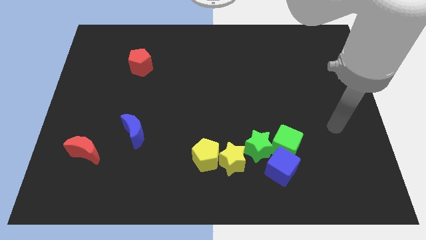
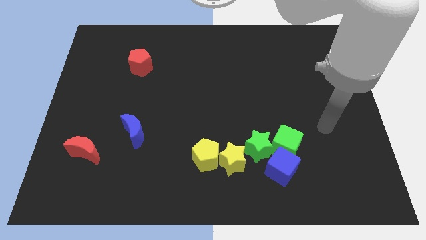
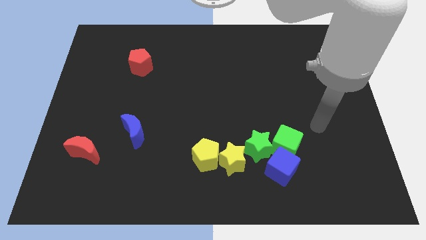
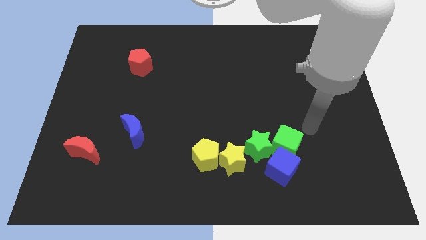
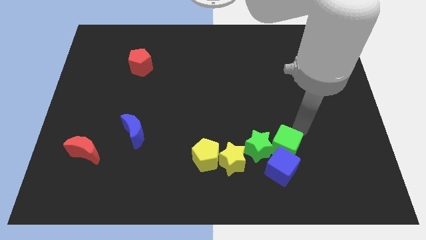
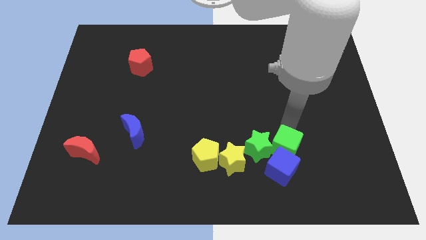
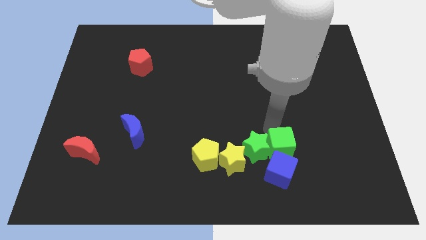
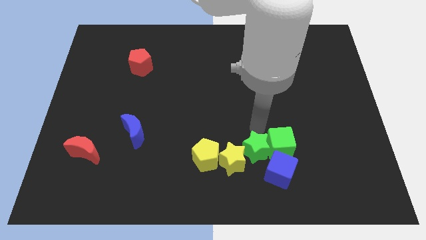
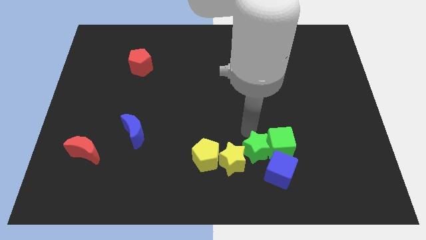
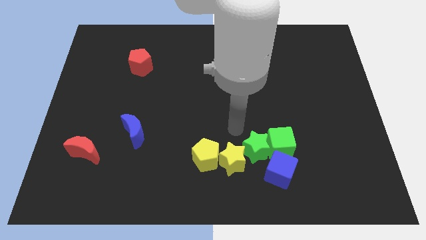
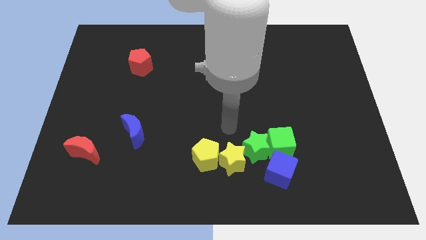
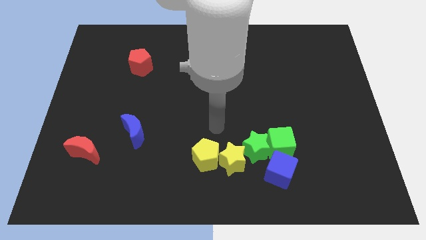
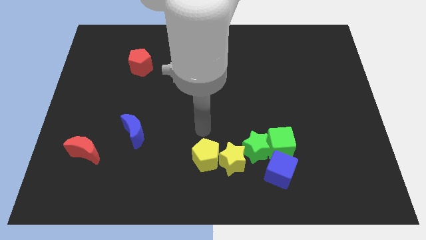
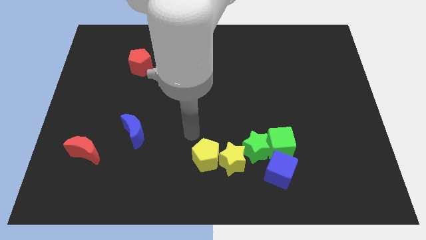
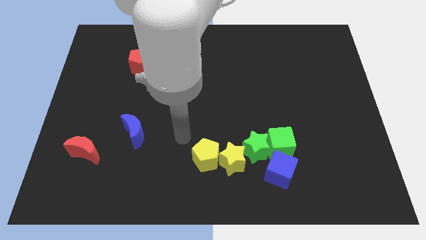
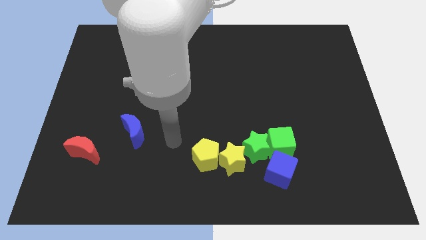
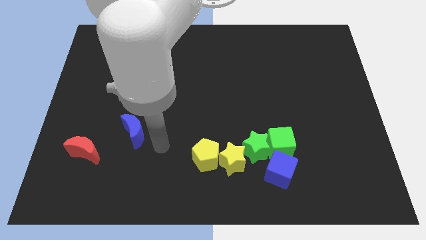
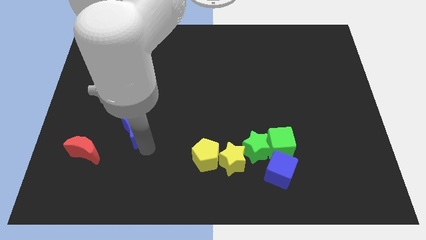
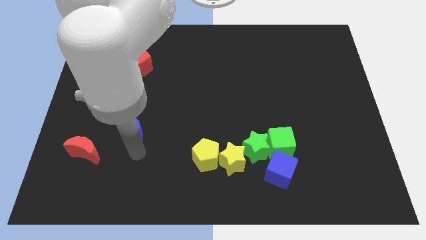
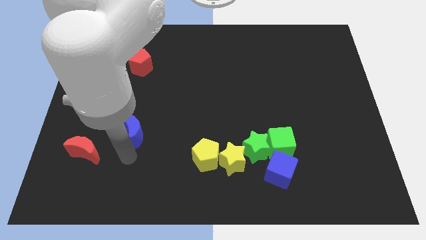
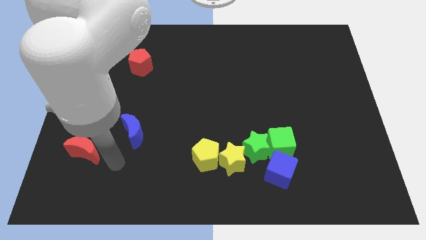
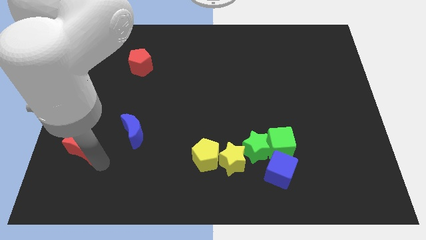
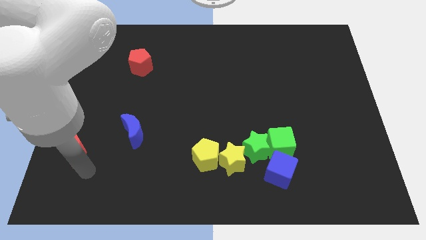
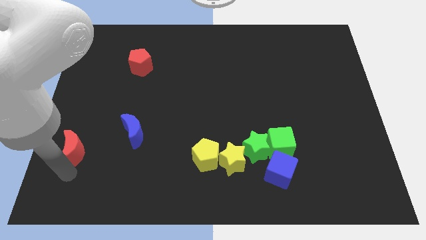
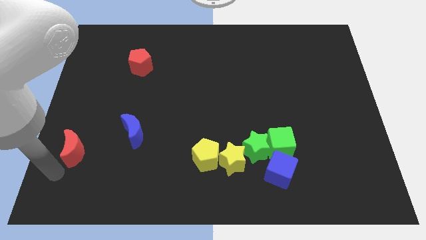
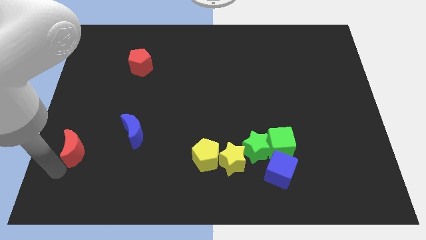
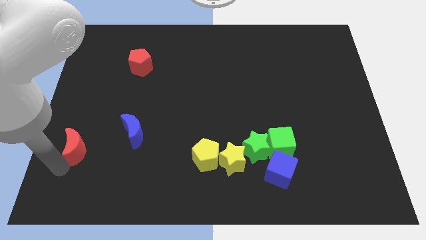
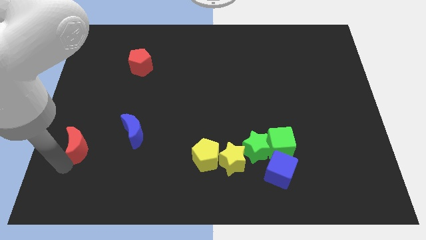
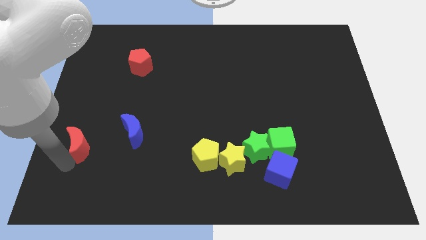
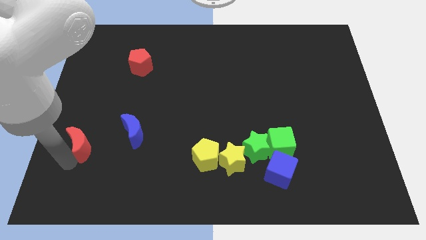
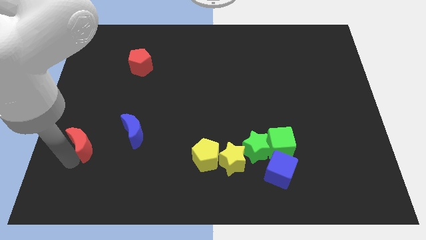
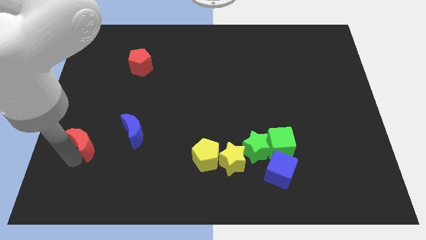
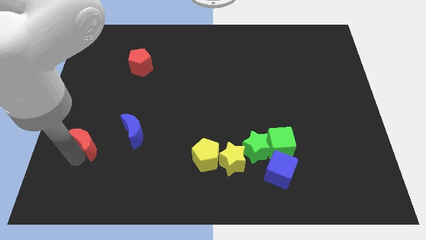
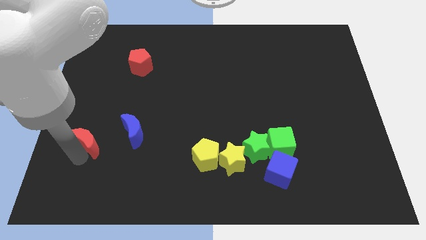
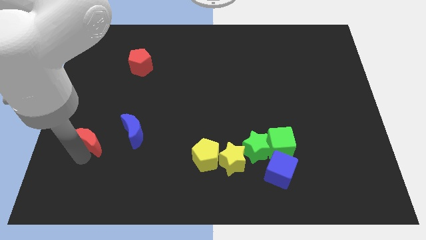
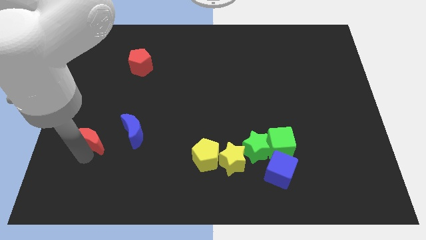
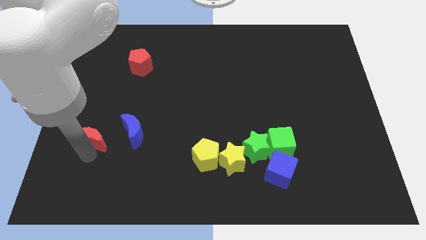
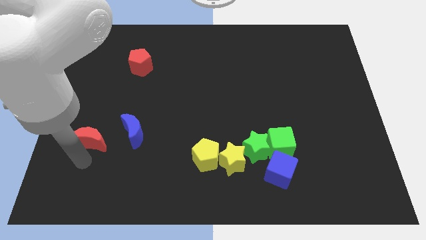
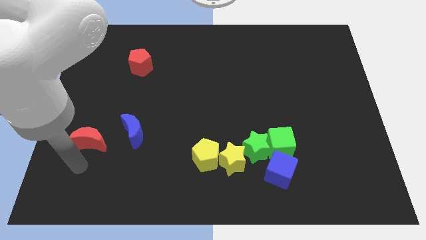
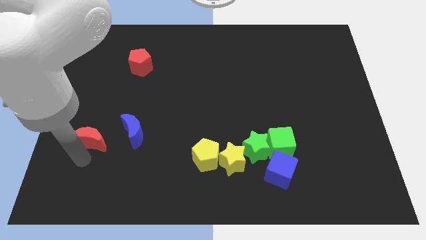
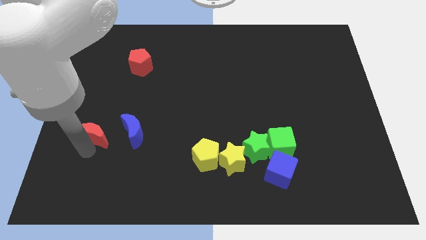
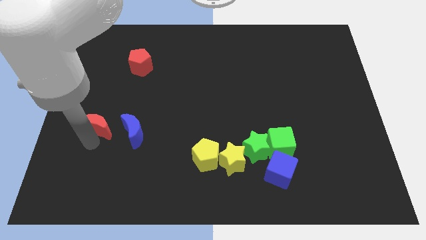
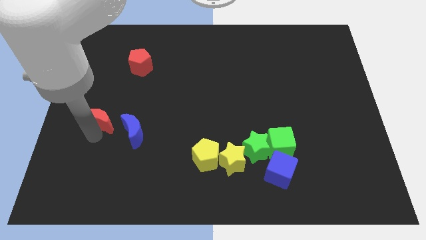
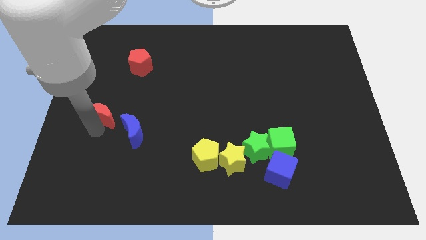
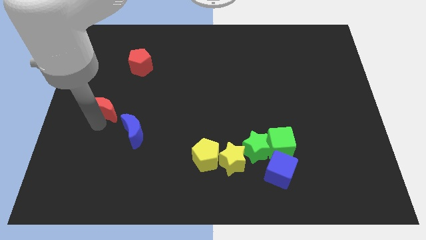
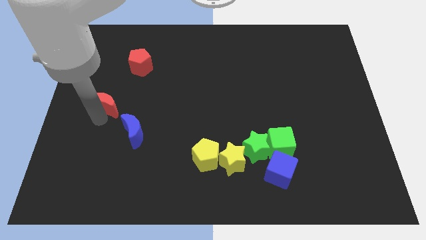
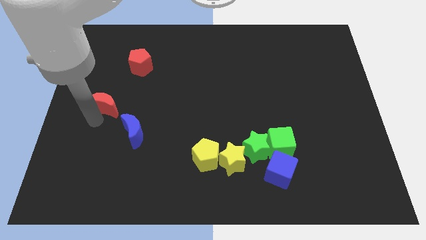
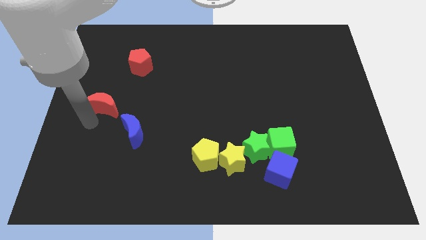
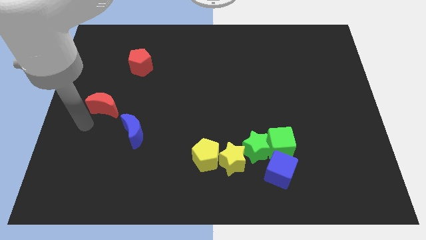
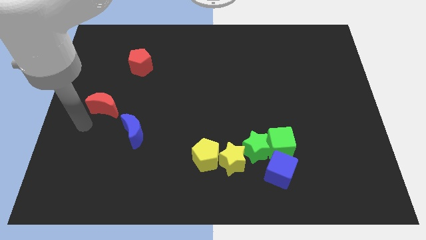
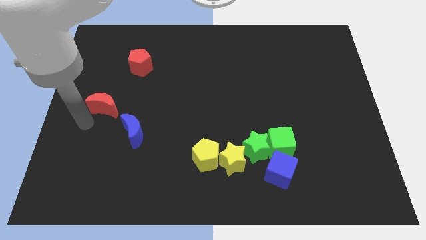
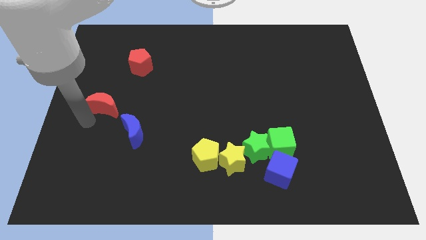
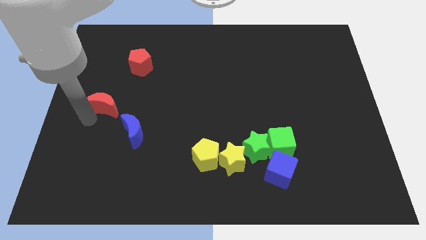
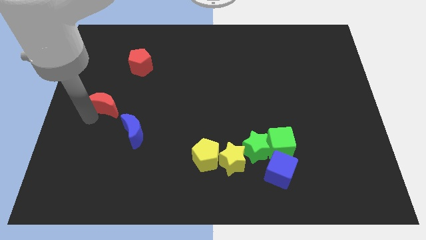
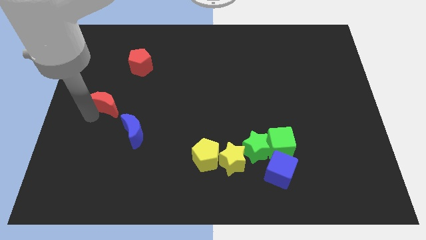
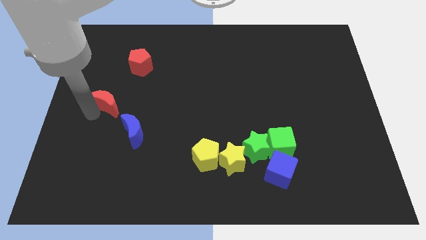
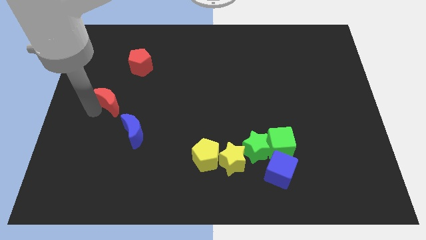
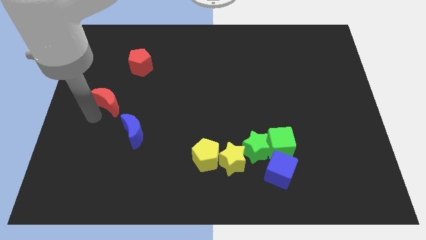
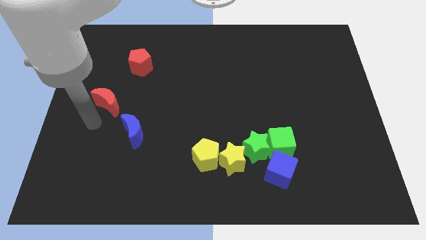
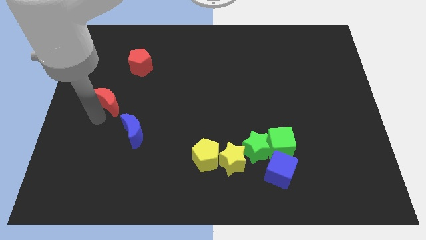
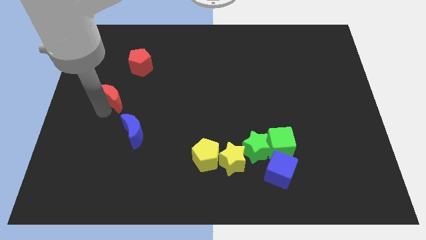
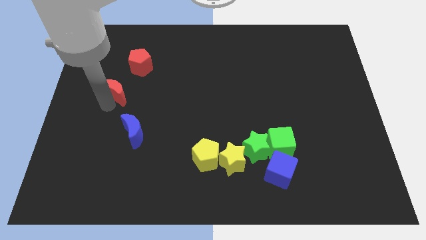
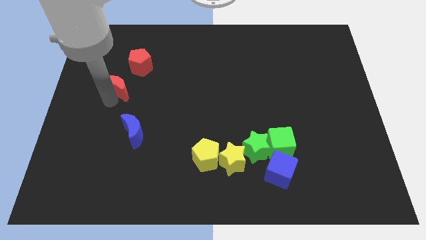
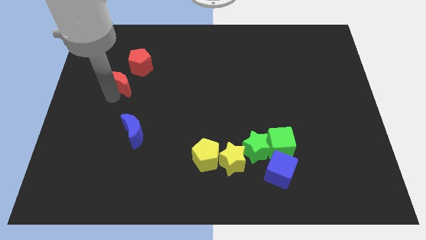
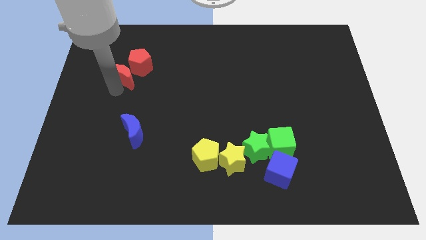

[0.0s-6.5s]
put the red moon close to the red pentagon
